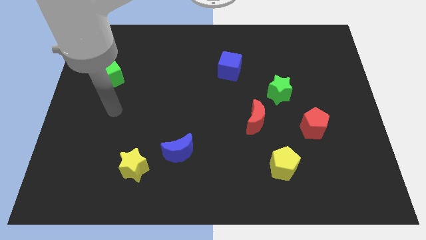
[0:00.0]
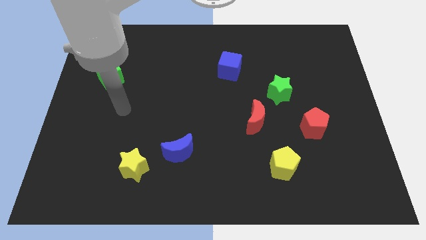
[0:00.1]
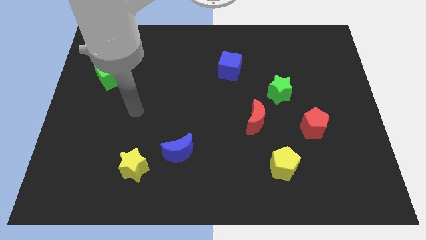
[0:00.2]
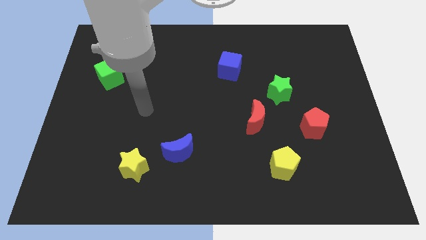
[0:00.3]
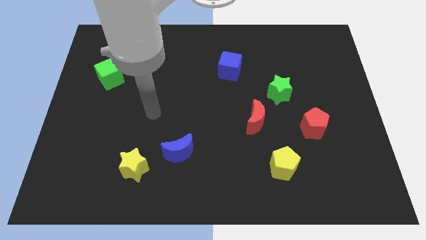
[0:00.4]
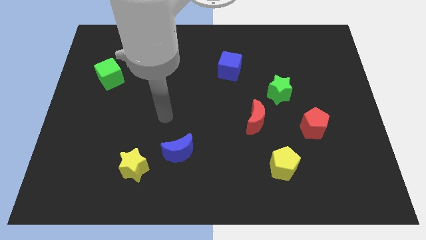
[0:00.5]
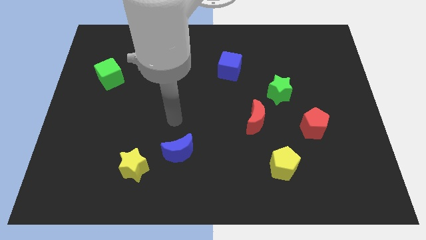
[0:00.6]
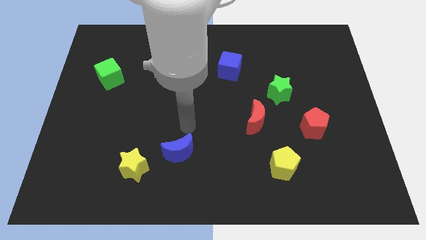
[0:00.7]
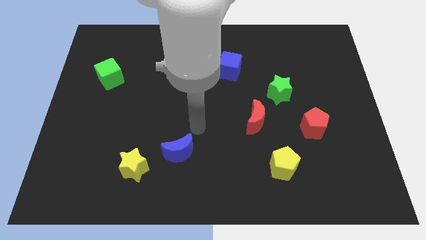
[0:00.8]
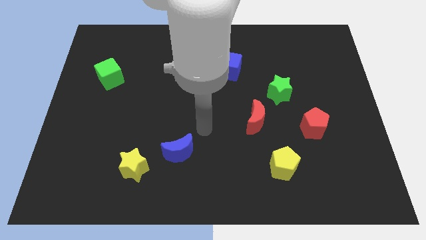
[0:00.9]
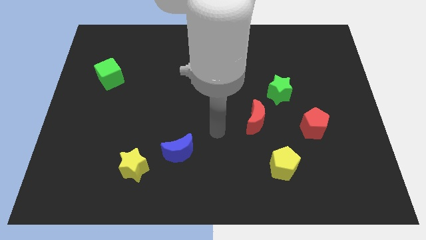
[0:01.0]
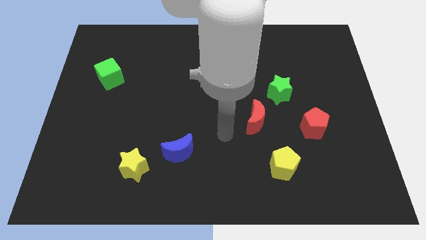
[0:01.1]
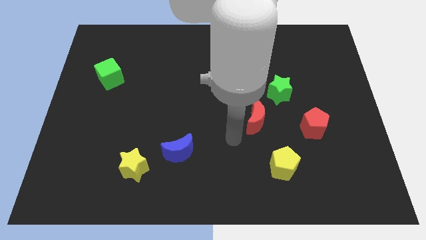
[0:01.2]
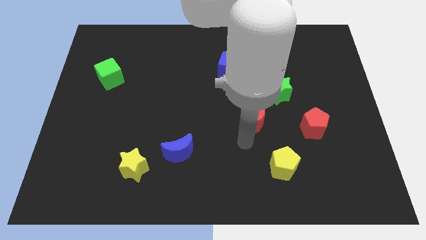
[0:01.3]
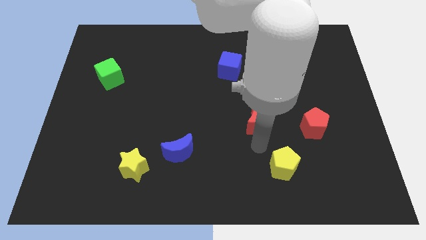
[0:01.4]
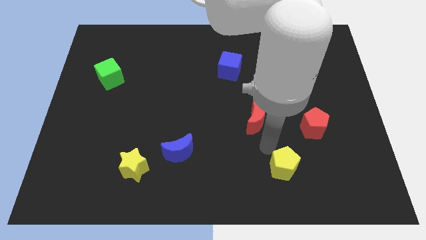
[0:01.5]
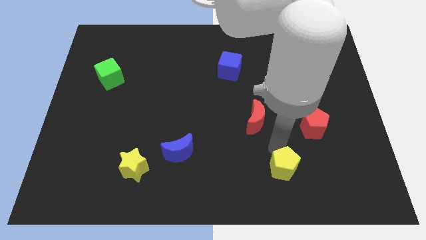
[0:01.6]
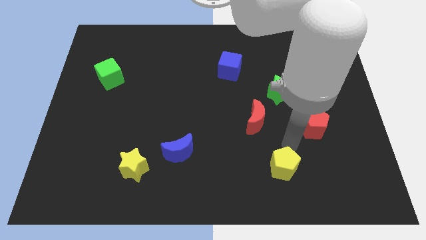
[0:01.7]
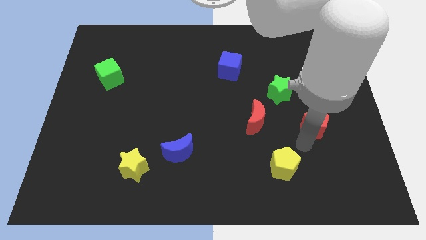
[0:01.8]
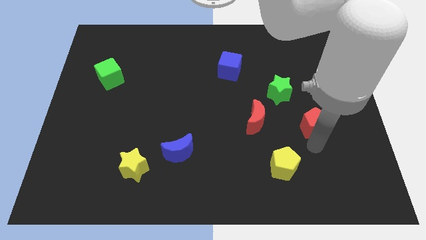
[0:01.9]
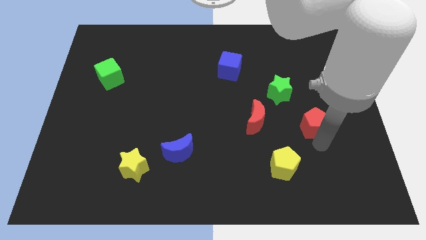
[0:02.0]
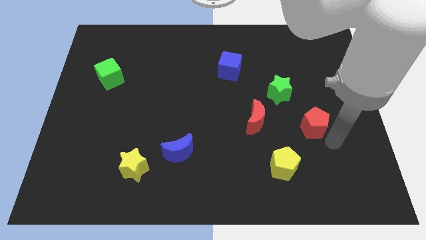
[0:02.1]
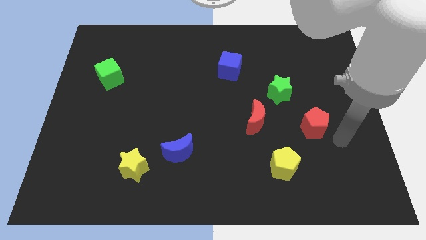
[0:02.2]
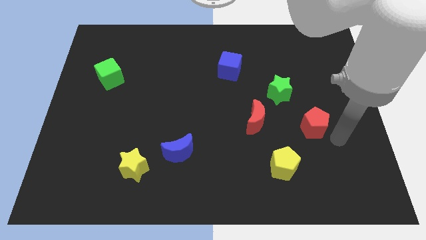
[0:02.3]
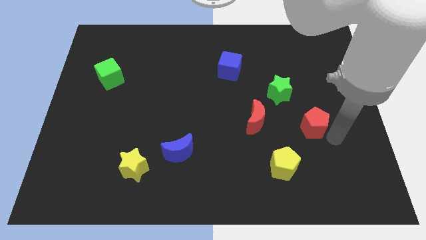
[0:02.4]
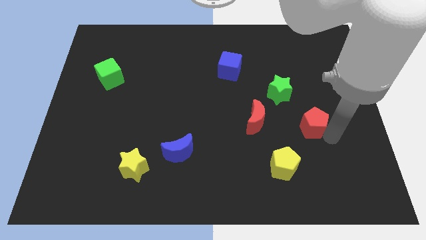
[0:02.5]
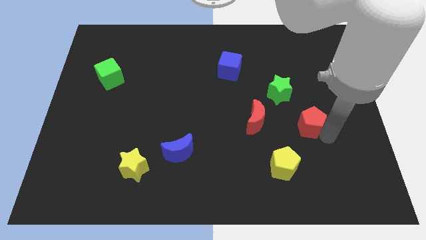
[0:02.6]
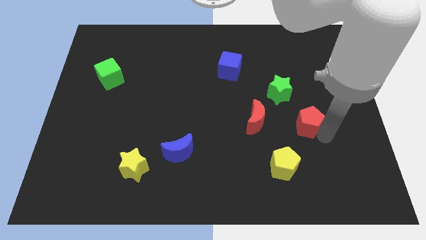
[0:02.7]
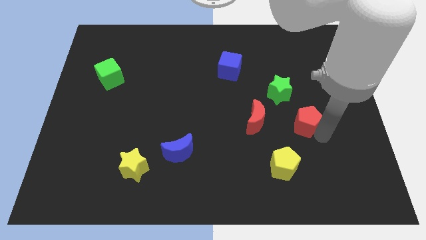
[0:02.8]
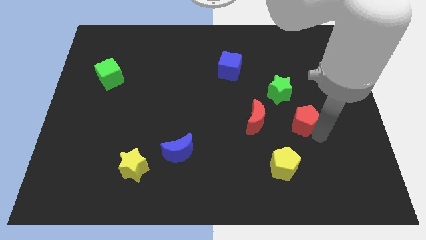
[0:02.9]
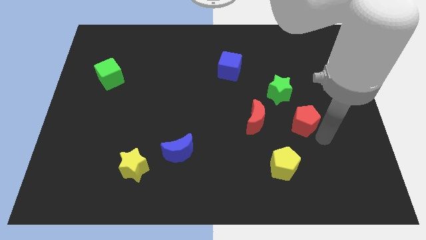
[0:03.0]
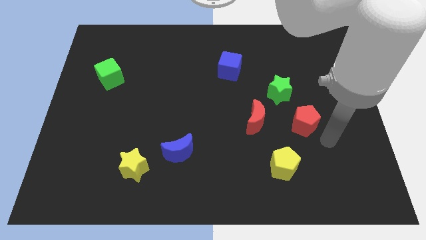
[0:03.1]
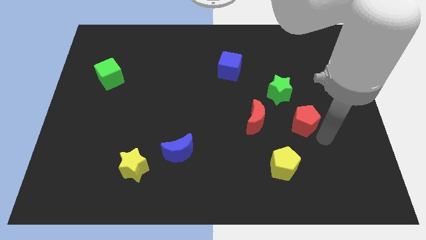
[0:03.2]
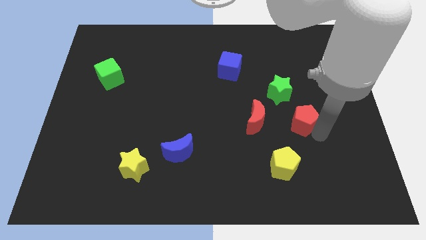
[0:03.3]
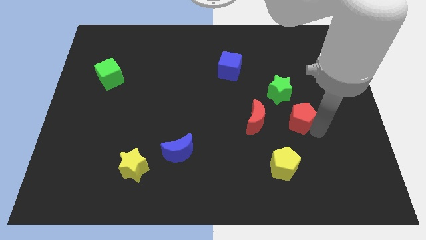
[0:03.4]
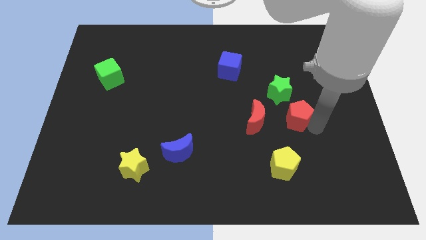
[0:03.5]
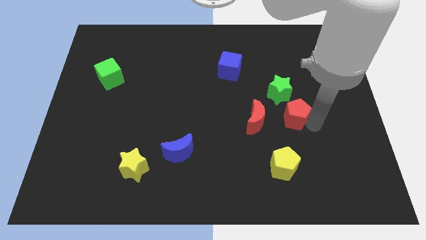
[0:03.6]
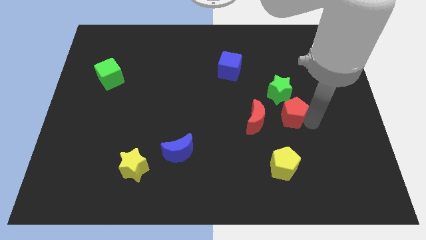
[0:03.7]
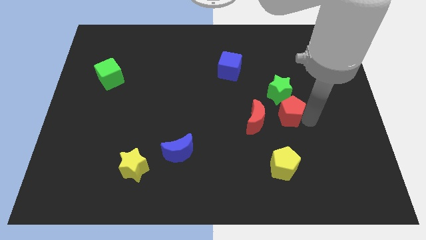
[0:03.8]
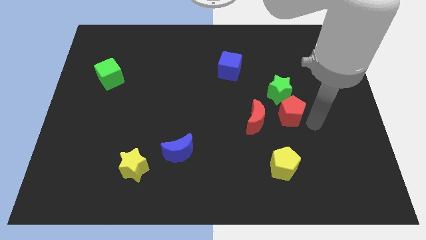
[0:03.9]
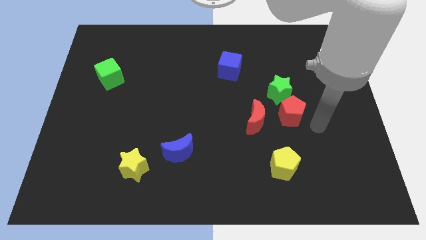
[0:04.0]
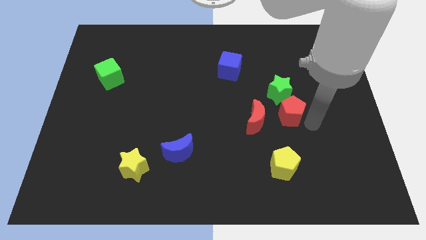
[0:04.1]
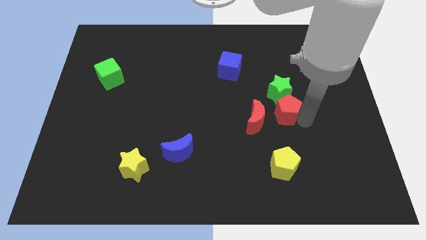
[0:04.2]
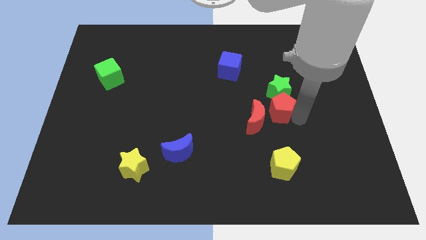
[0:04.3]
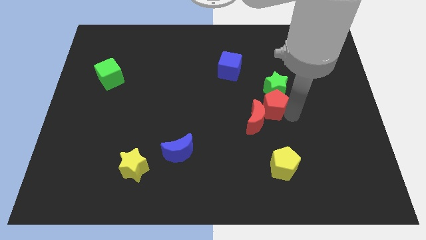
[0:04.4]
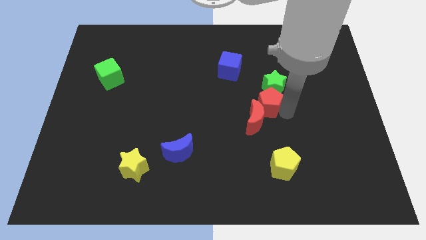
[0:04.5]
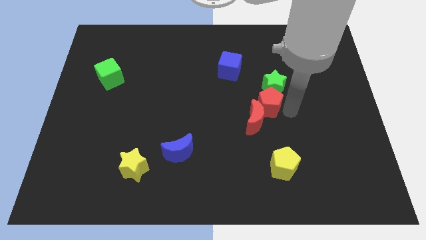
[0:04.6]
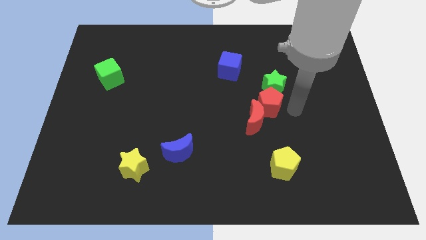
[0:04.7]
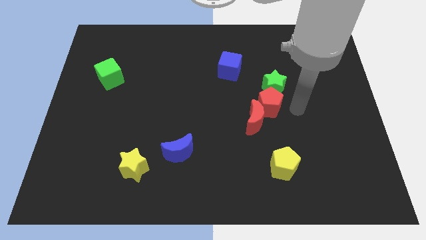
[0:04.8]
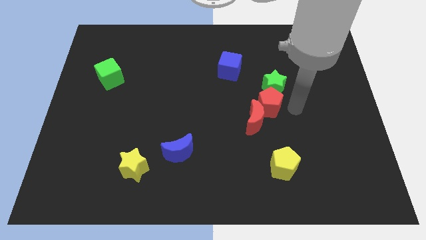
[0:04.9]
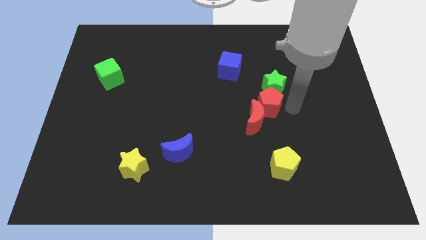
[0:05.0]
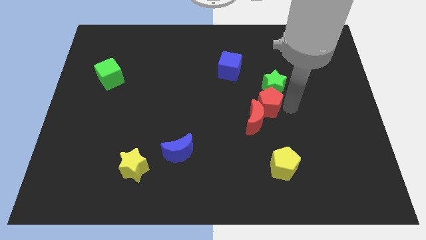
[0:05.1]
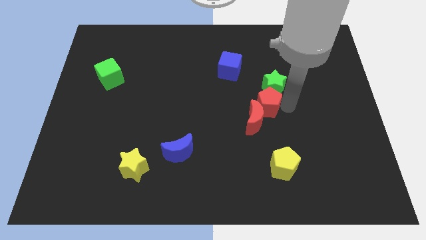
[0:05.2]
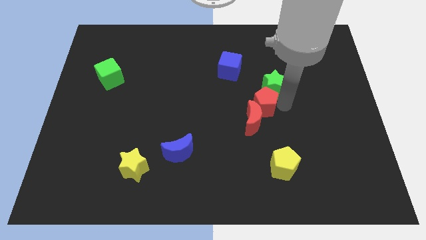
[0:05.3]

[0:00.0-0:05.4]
put the red pentagon to the middle of the board

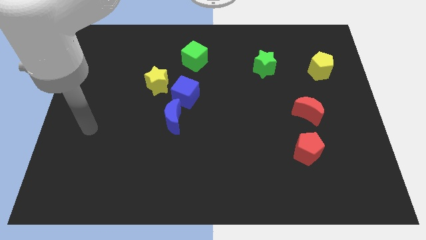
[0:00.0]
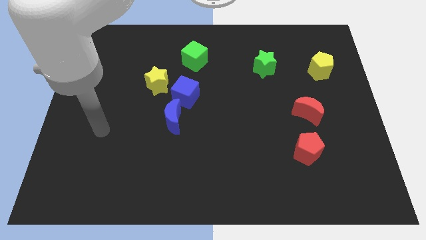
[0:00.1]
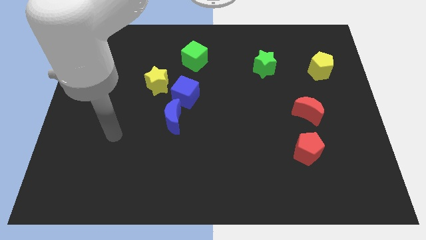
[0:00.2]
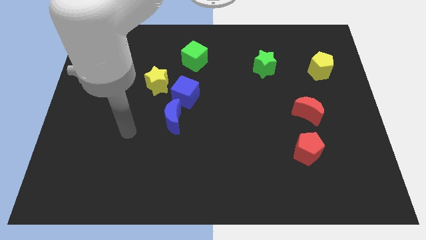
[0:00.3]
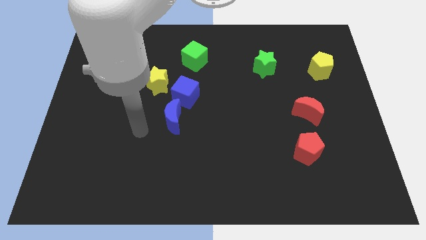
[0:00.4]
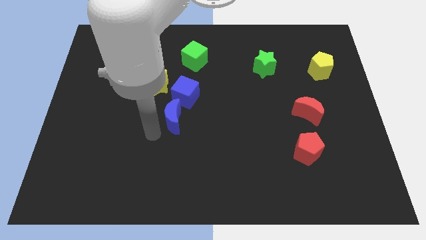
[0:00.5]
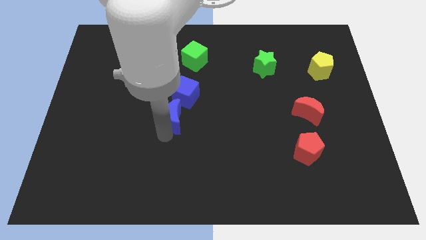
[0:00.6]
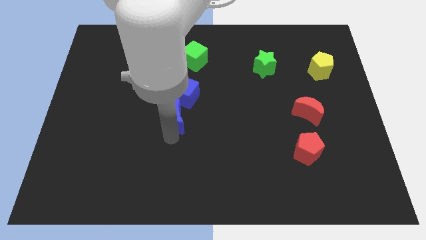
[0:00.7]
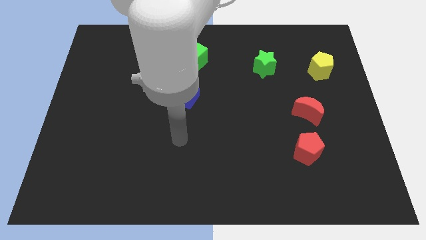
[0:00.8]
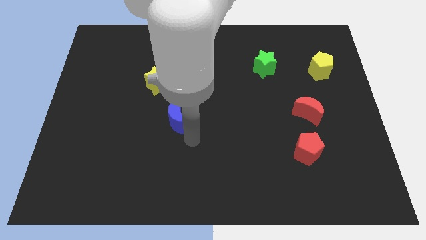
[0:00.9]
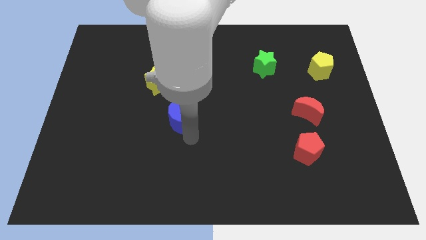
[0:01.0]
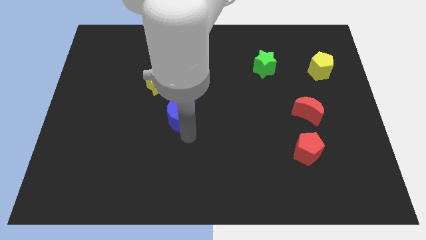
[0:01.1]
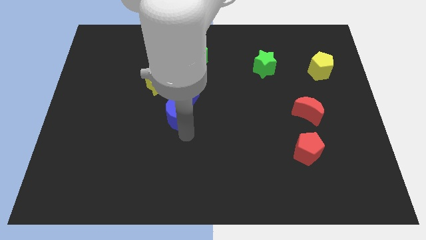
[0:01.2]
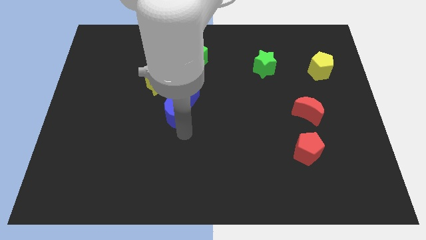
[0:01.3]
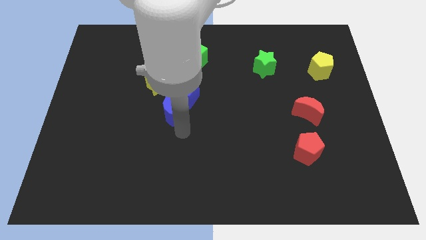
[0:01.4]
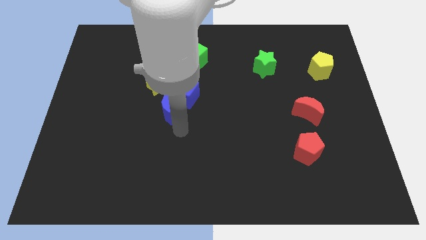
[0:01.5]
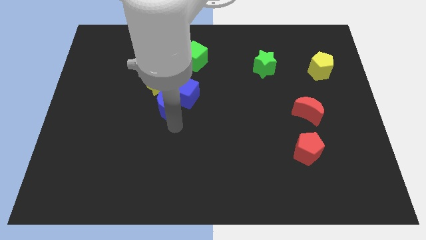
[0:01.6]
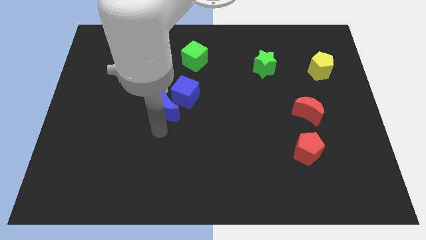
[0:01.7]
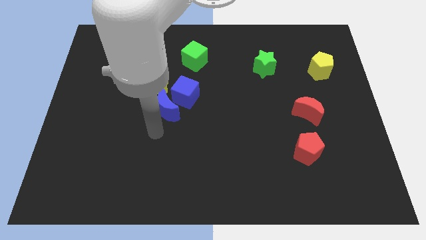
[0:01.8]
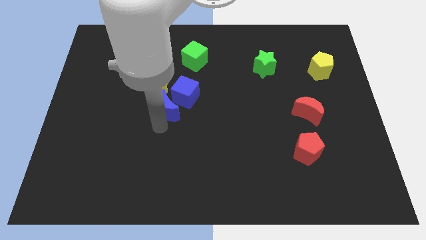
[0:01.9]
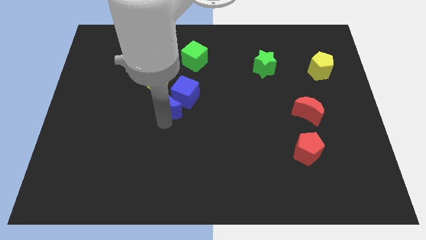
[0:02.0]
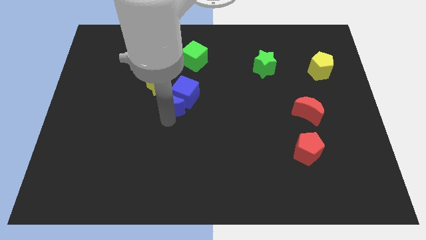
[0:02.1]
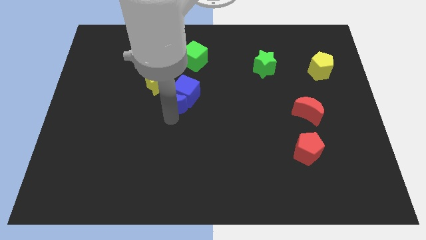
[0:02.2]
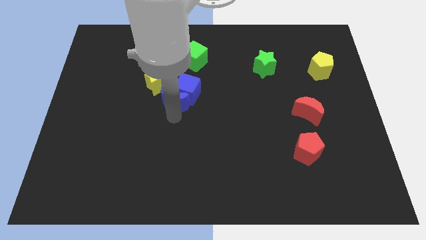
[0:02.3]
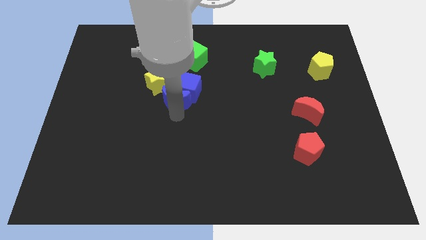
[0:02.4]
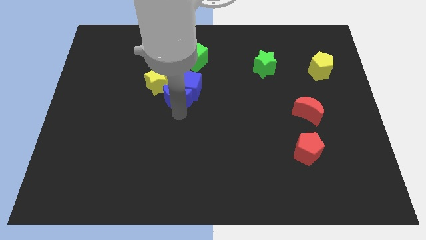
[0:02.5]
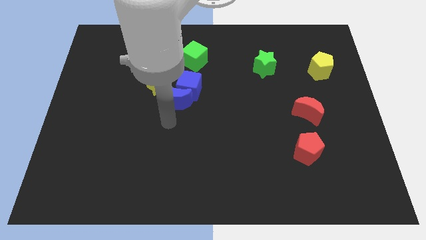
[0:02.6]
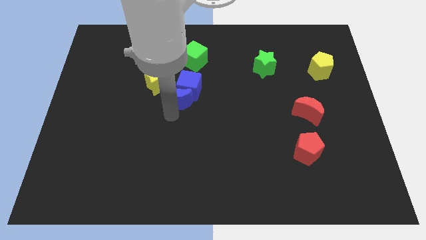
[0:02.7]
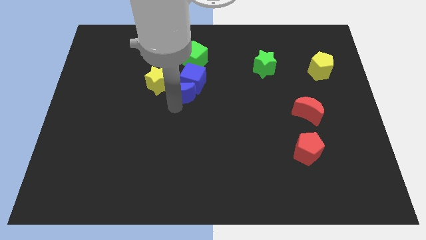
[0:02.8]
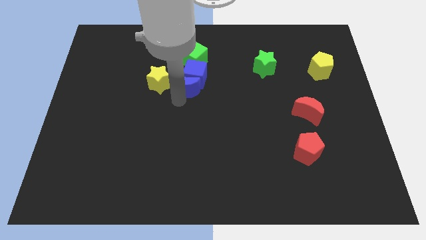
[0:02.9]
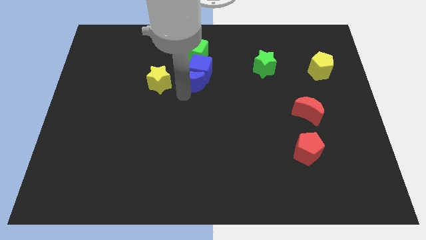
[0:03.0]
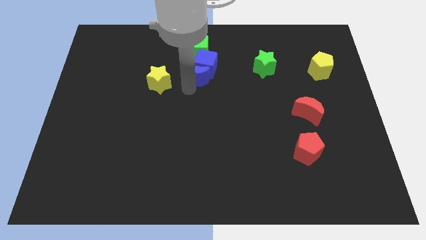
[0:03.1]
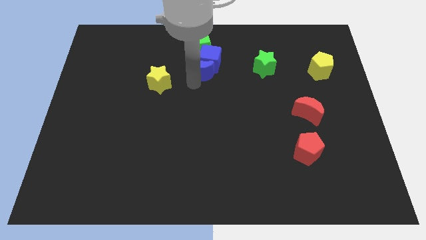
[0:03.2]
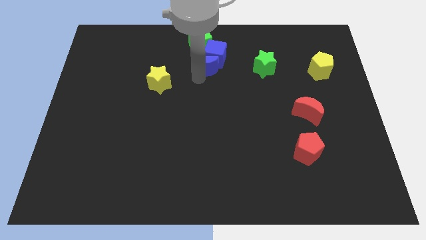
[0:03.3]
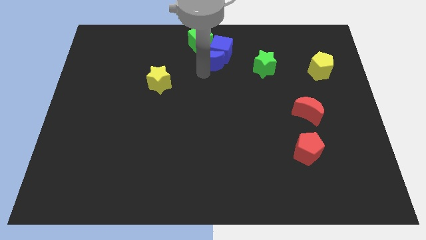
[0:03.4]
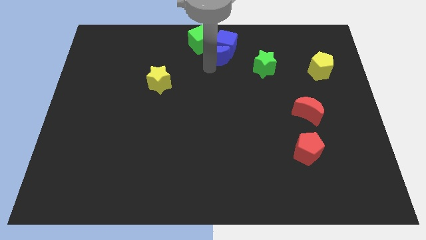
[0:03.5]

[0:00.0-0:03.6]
put the blue moon to the top side
